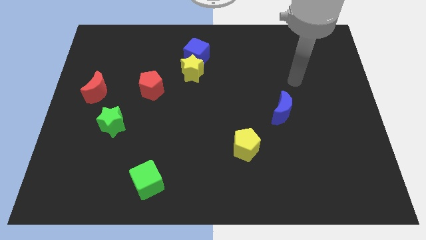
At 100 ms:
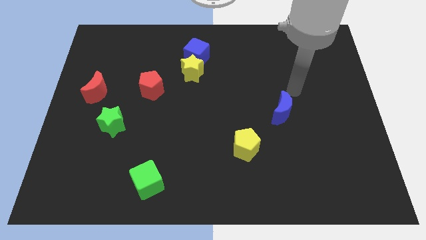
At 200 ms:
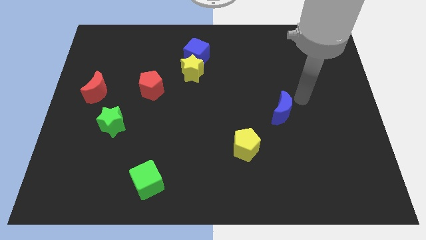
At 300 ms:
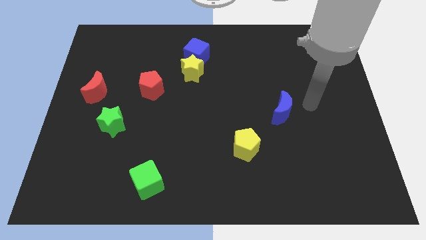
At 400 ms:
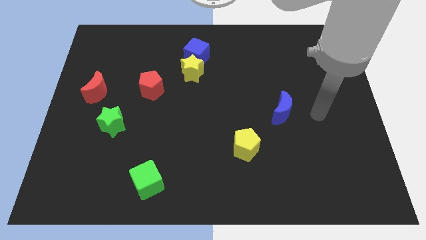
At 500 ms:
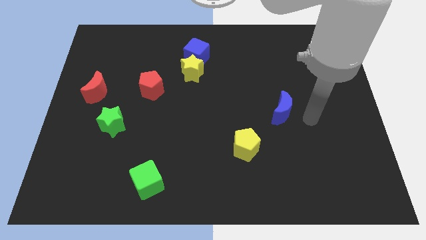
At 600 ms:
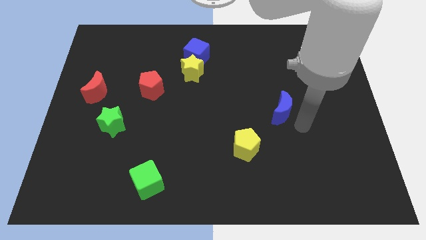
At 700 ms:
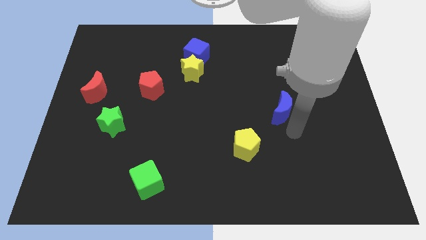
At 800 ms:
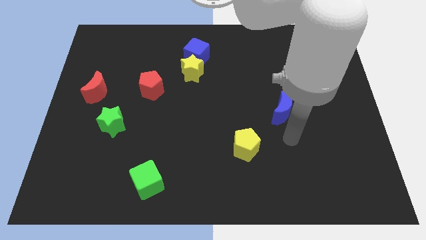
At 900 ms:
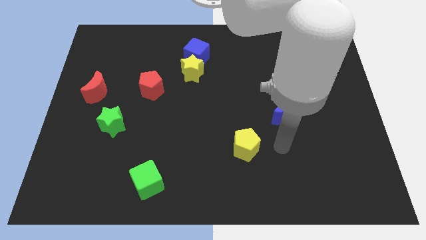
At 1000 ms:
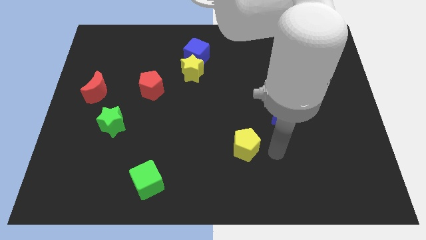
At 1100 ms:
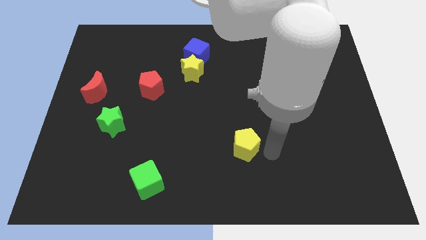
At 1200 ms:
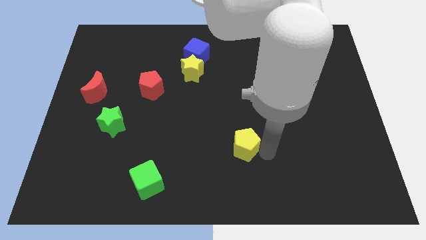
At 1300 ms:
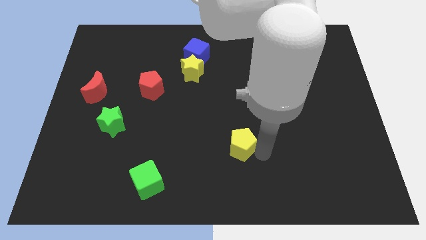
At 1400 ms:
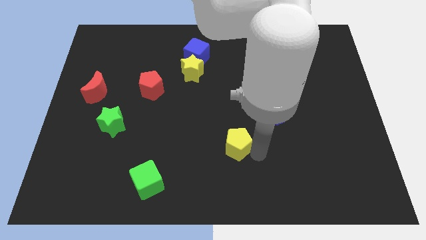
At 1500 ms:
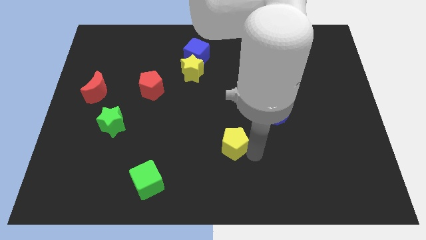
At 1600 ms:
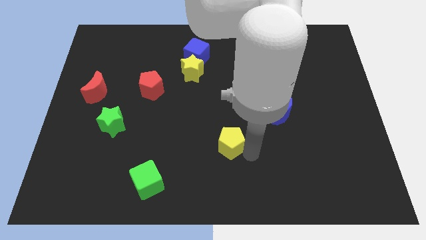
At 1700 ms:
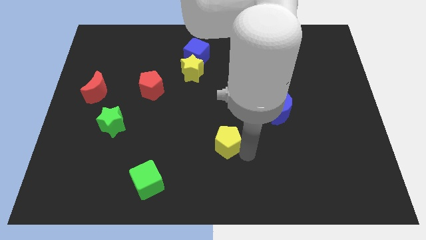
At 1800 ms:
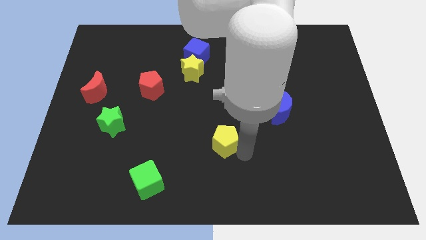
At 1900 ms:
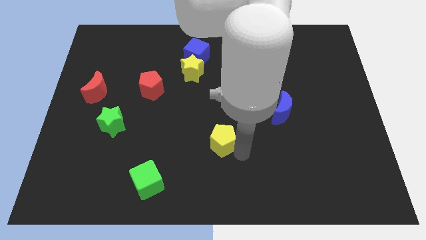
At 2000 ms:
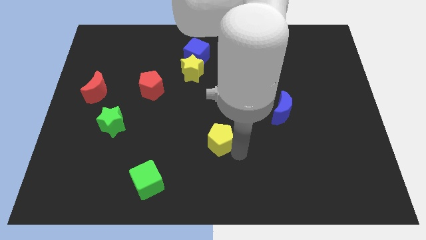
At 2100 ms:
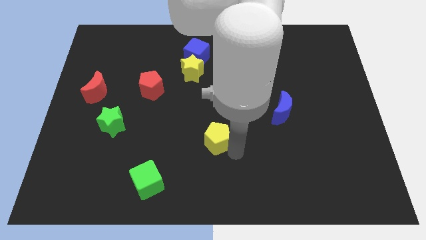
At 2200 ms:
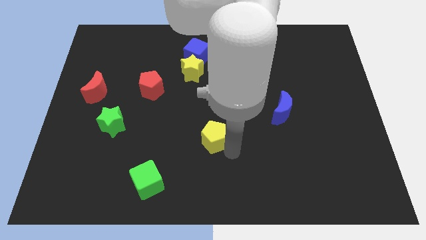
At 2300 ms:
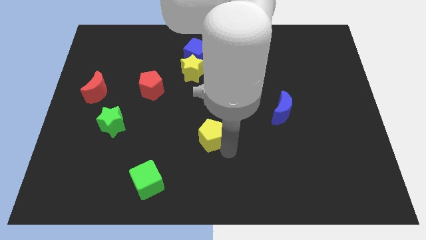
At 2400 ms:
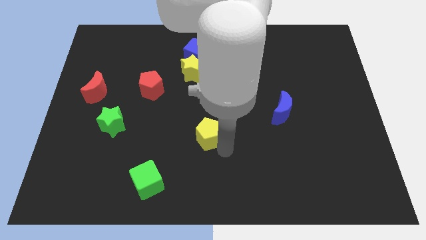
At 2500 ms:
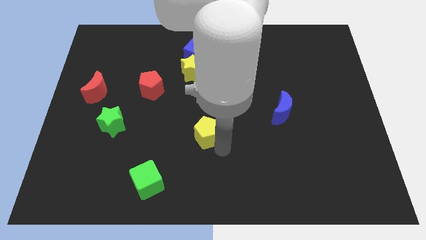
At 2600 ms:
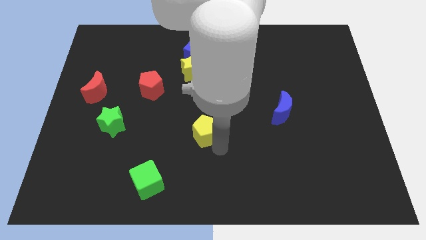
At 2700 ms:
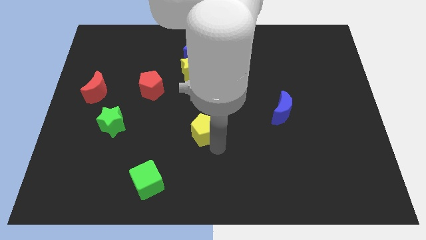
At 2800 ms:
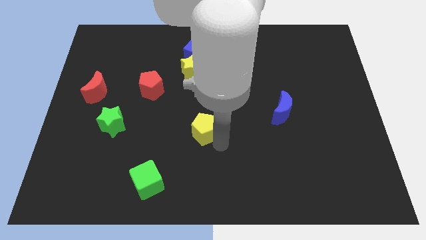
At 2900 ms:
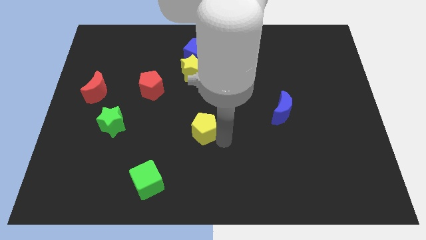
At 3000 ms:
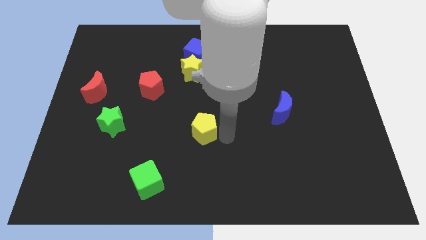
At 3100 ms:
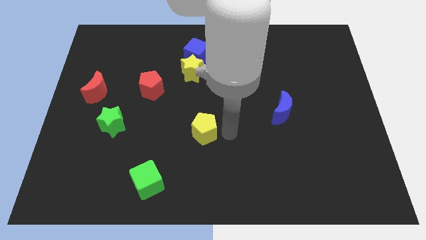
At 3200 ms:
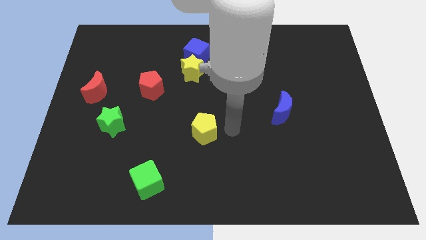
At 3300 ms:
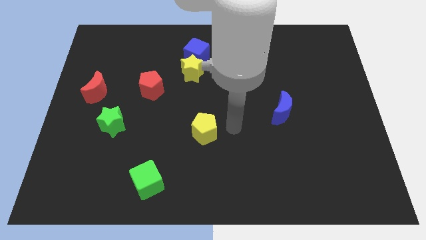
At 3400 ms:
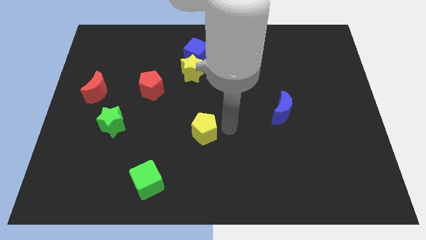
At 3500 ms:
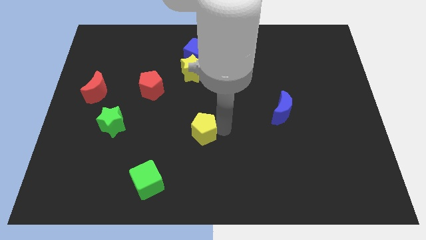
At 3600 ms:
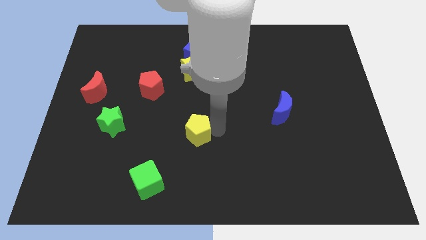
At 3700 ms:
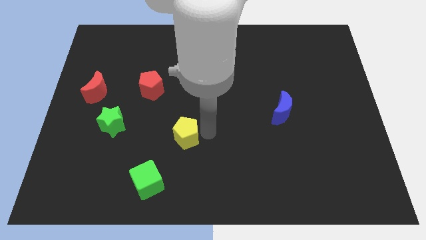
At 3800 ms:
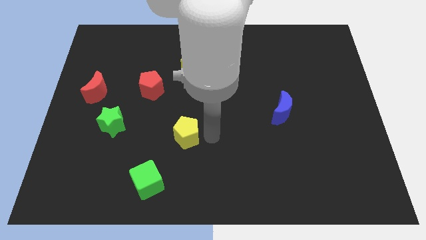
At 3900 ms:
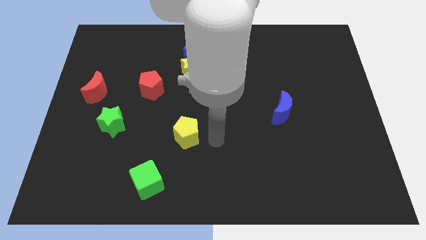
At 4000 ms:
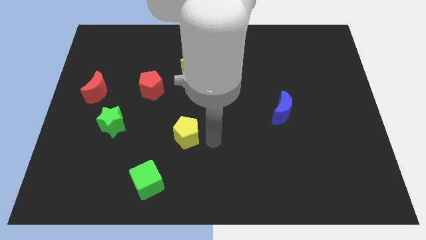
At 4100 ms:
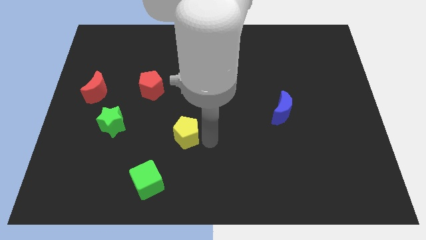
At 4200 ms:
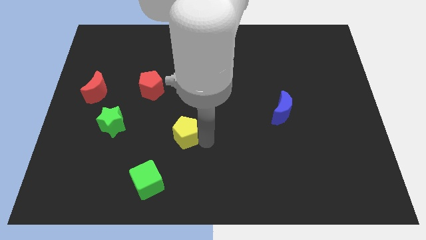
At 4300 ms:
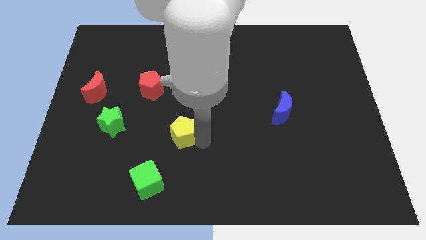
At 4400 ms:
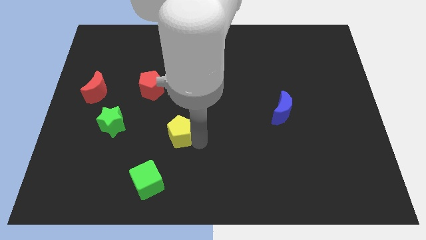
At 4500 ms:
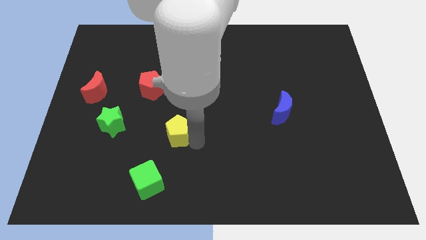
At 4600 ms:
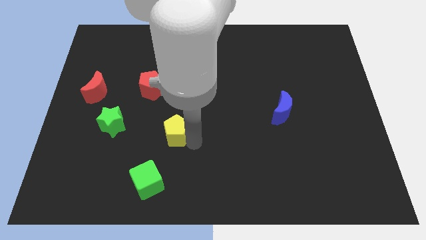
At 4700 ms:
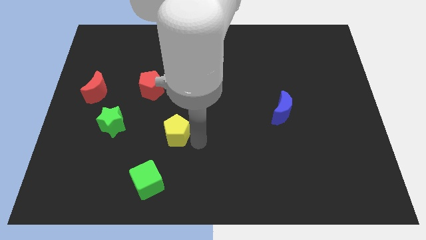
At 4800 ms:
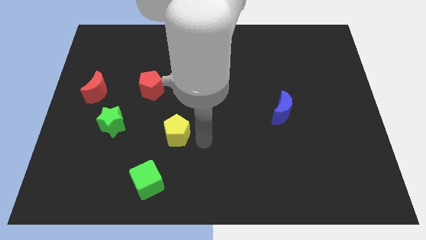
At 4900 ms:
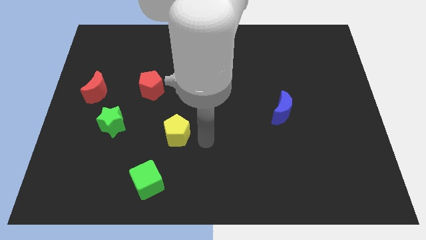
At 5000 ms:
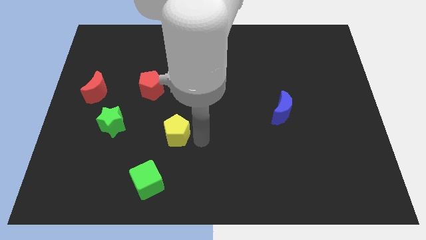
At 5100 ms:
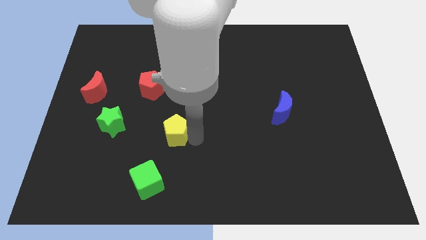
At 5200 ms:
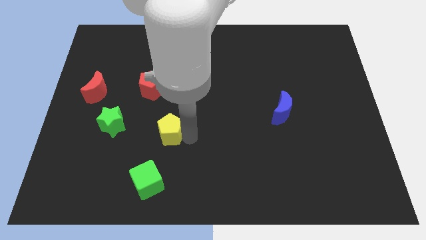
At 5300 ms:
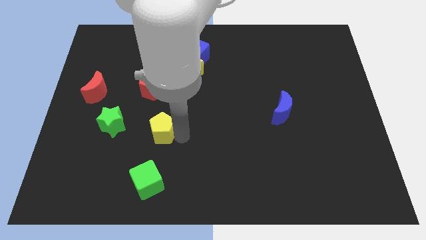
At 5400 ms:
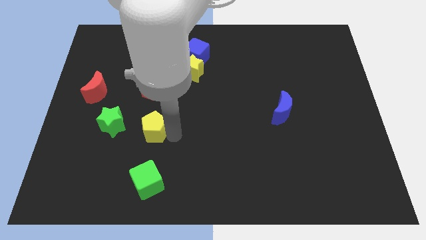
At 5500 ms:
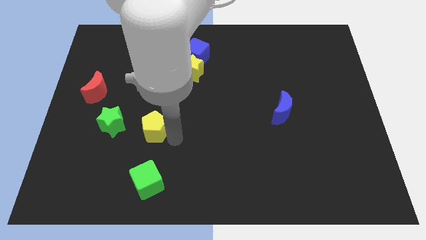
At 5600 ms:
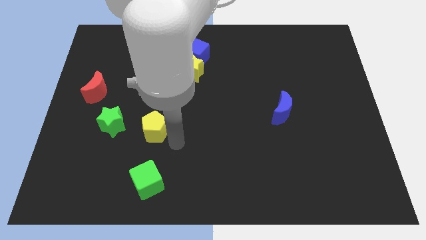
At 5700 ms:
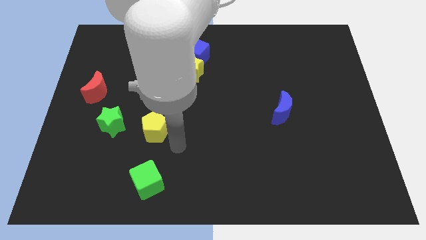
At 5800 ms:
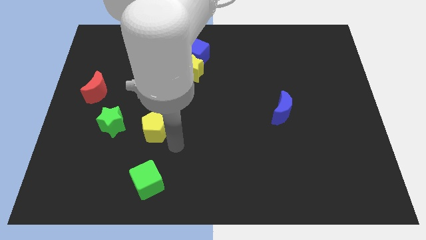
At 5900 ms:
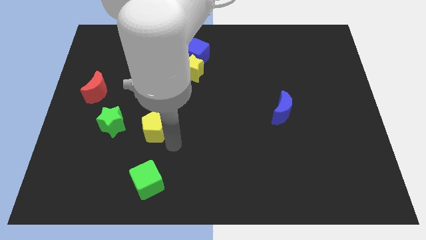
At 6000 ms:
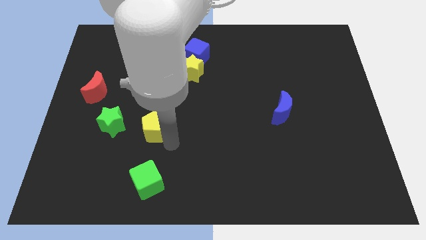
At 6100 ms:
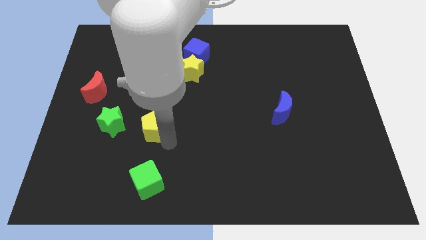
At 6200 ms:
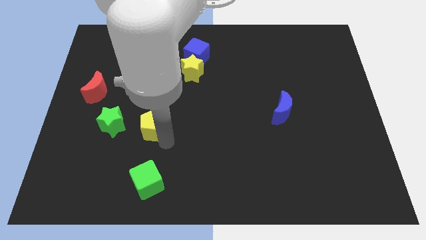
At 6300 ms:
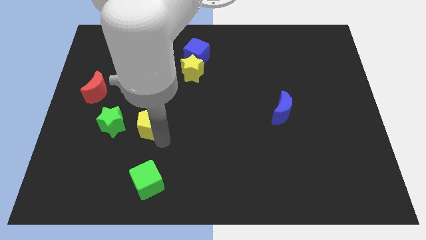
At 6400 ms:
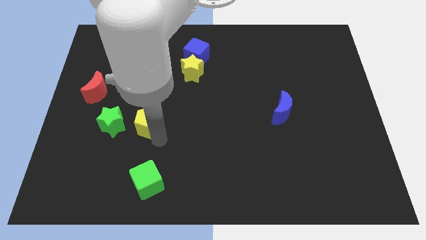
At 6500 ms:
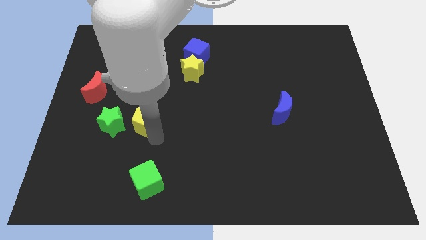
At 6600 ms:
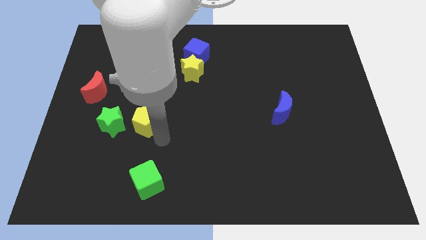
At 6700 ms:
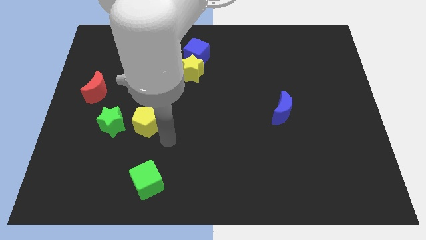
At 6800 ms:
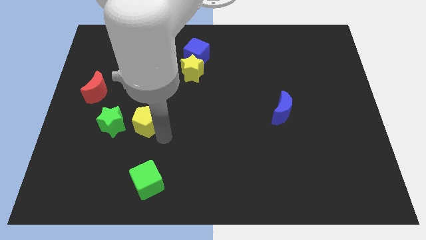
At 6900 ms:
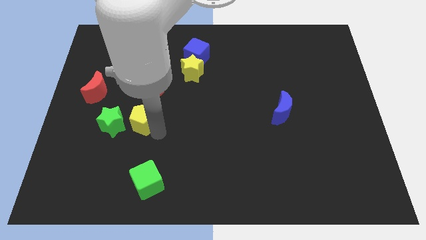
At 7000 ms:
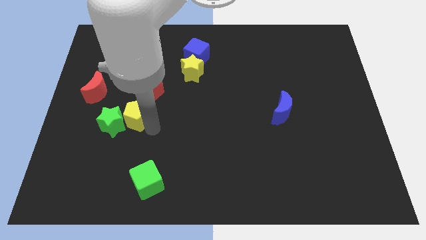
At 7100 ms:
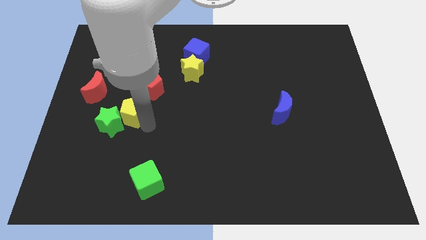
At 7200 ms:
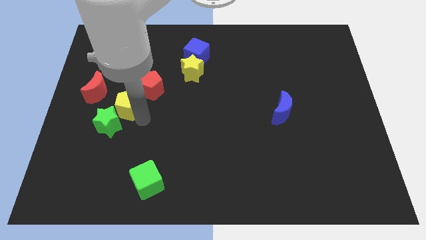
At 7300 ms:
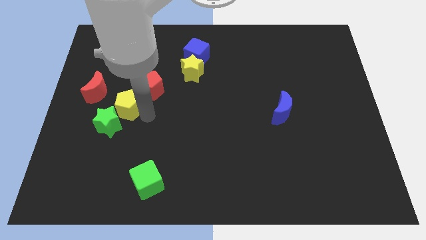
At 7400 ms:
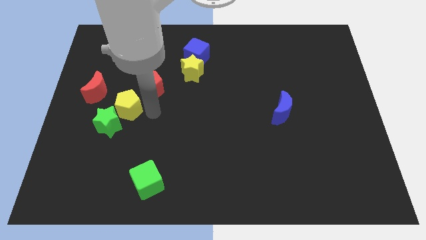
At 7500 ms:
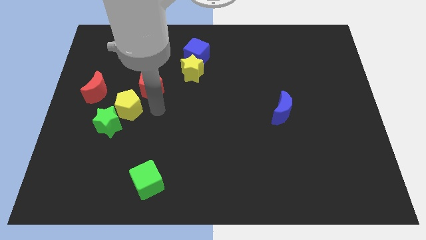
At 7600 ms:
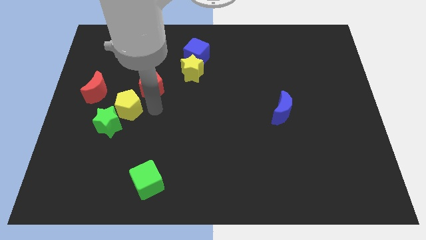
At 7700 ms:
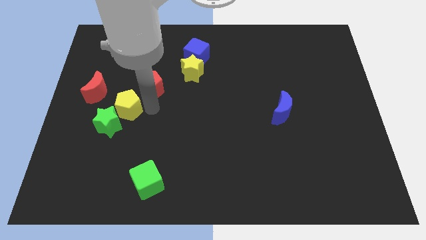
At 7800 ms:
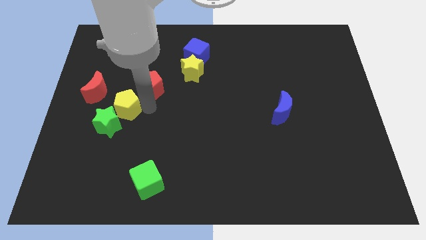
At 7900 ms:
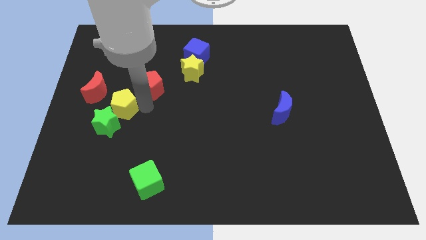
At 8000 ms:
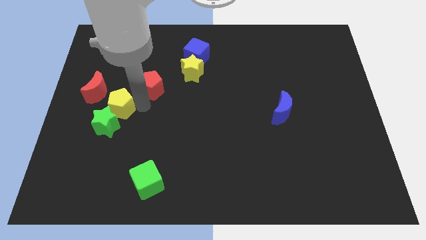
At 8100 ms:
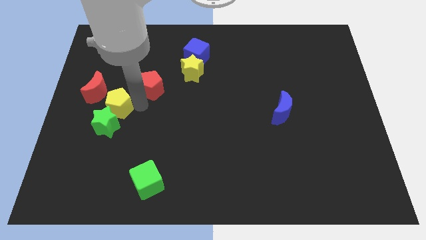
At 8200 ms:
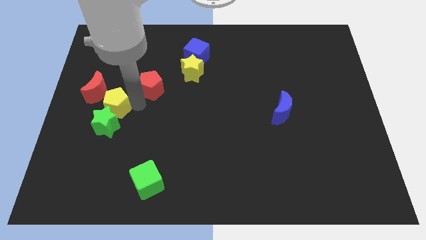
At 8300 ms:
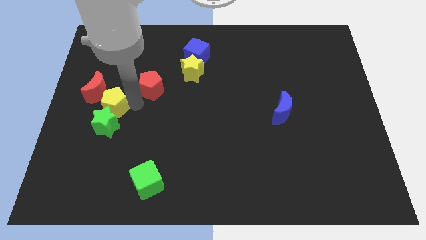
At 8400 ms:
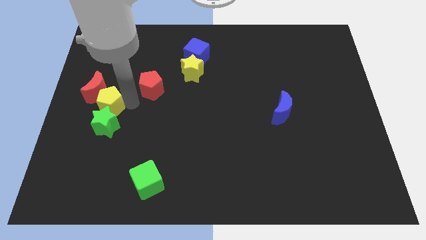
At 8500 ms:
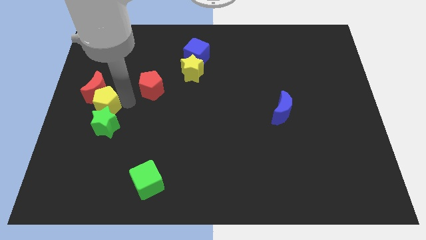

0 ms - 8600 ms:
put the yellow pentagon to the left side
